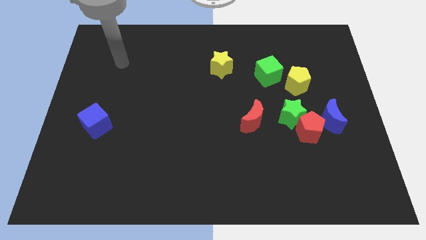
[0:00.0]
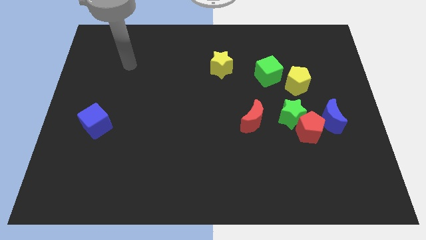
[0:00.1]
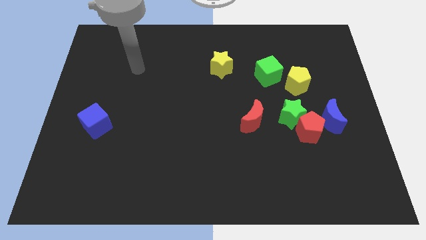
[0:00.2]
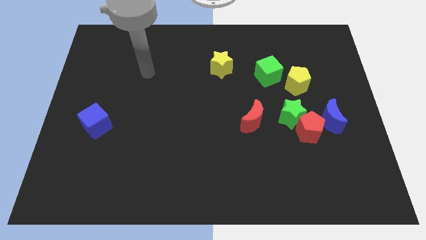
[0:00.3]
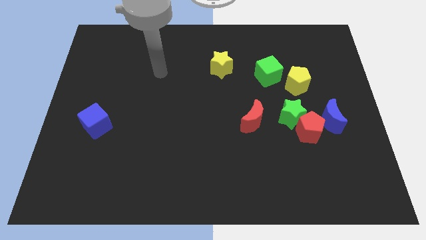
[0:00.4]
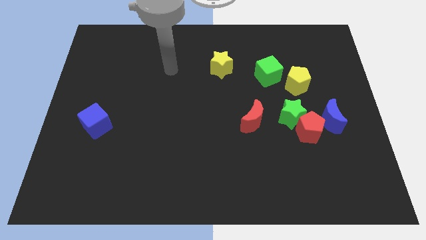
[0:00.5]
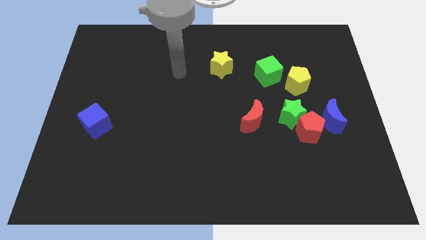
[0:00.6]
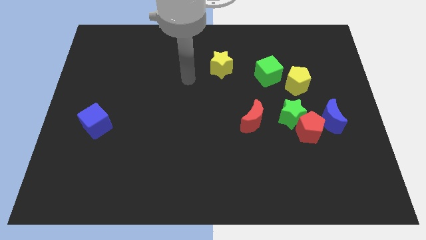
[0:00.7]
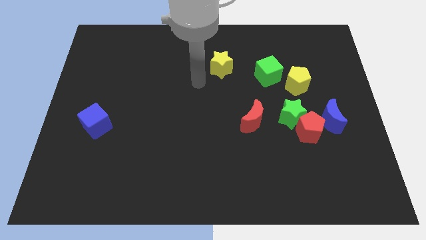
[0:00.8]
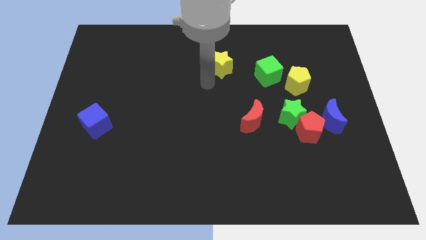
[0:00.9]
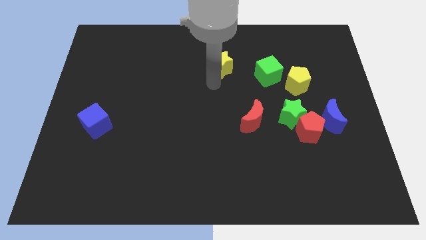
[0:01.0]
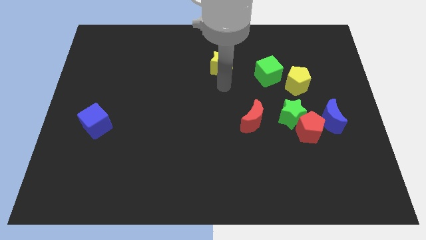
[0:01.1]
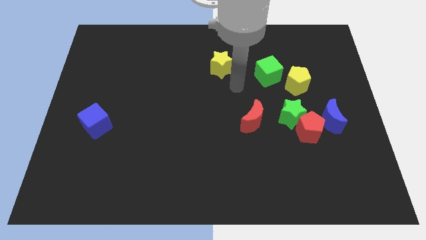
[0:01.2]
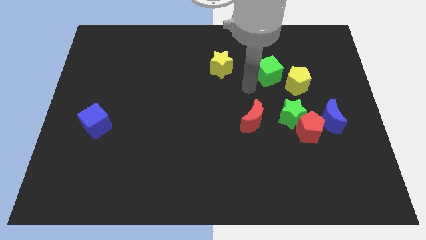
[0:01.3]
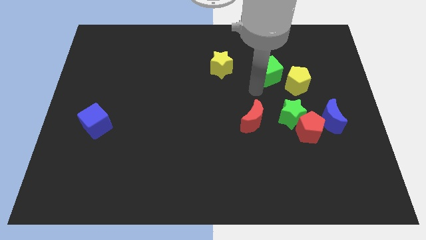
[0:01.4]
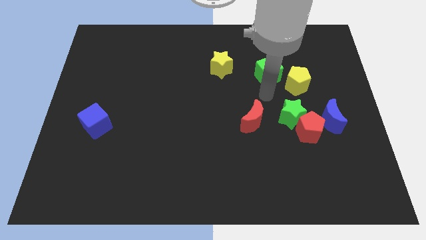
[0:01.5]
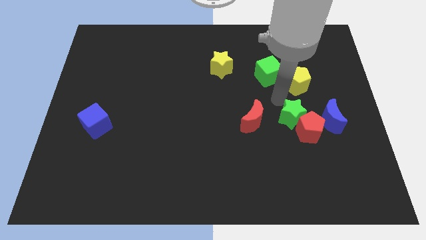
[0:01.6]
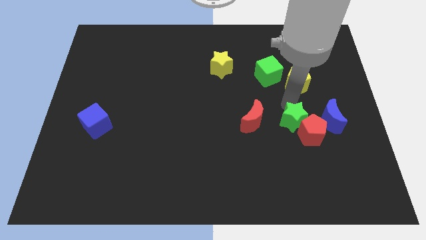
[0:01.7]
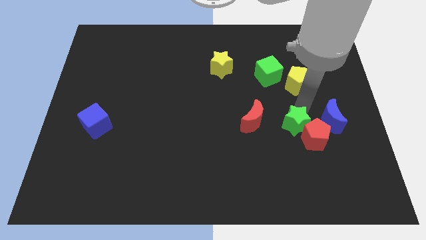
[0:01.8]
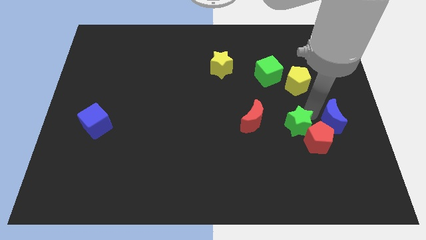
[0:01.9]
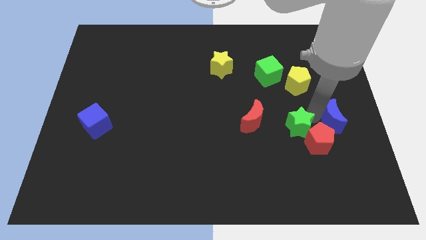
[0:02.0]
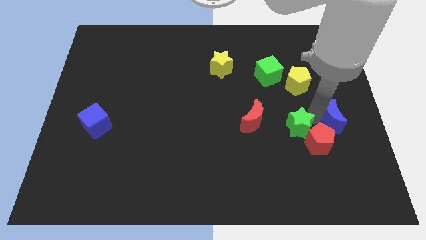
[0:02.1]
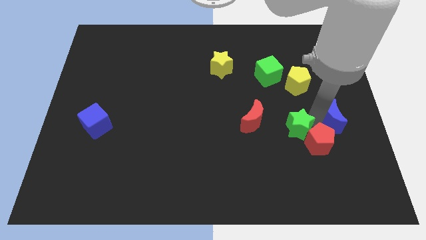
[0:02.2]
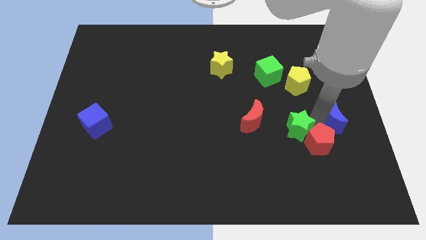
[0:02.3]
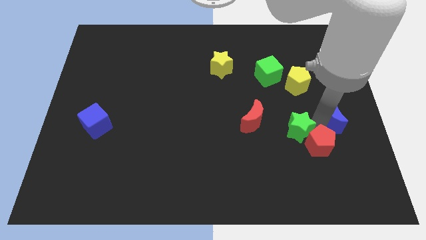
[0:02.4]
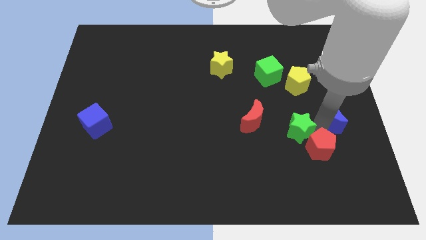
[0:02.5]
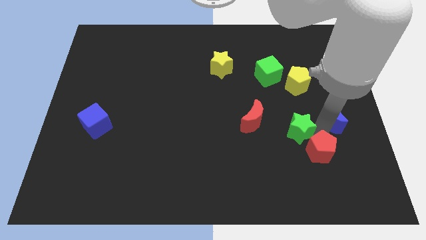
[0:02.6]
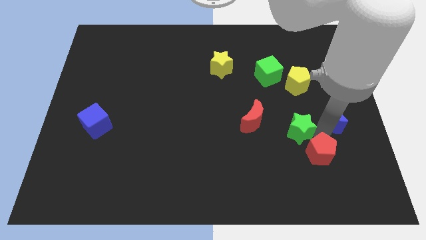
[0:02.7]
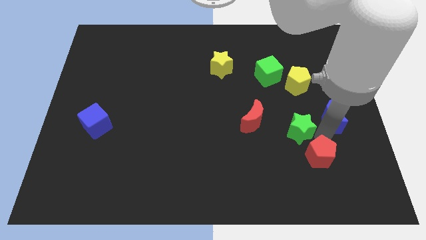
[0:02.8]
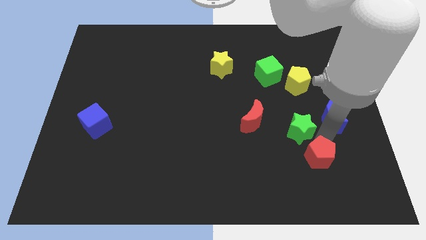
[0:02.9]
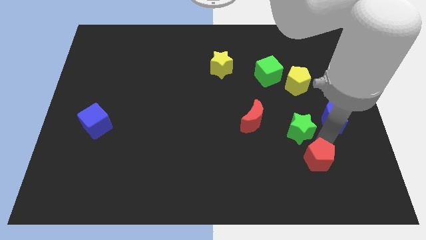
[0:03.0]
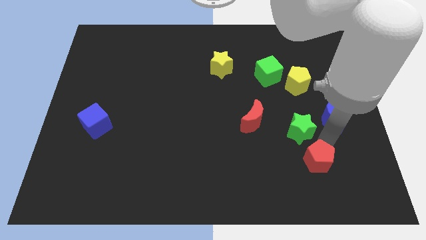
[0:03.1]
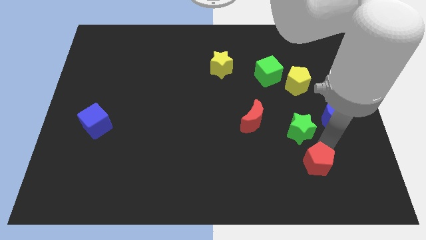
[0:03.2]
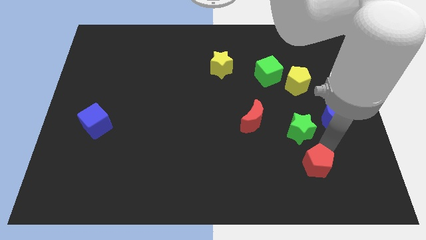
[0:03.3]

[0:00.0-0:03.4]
move the red pentagon away from the green star and blue moon

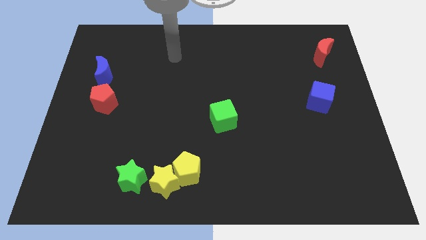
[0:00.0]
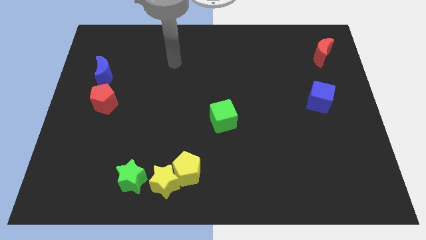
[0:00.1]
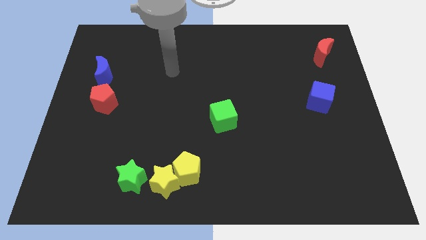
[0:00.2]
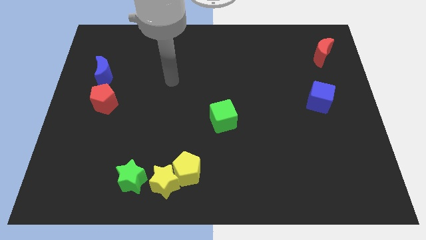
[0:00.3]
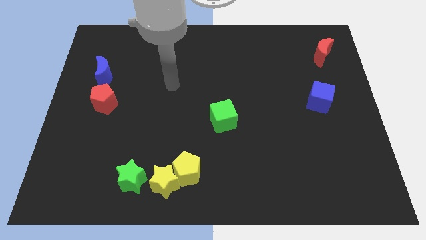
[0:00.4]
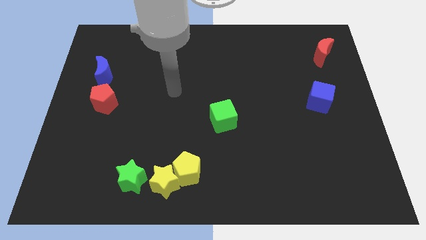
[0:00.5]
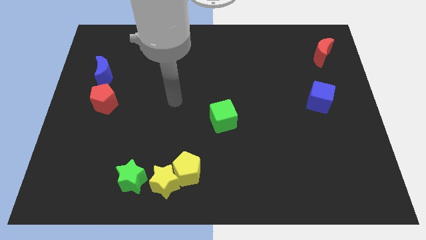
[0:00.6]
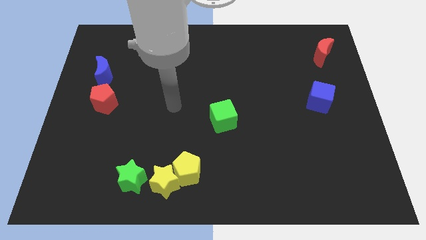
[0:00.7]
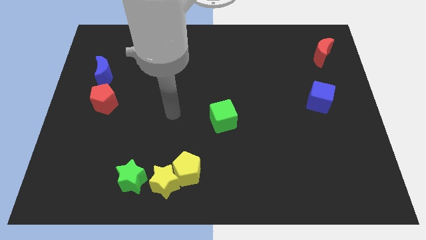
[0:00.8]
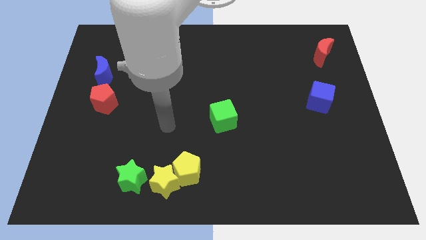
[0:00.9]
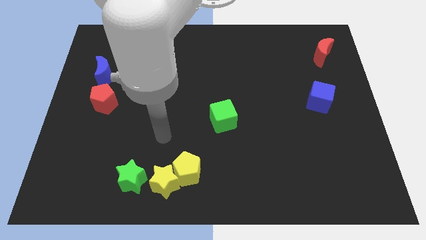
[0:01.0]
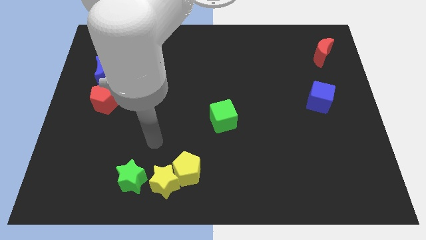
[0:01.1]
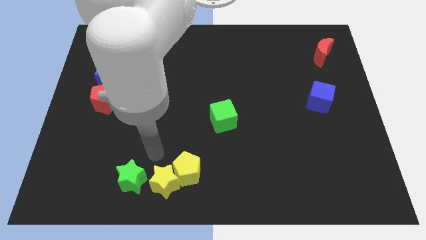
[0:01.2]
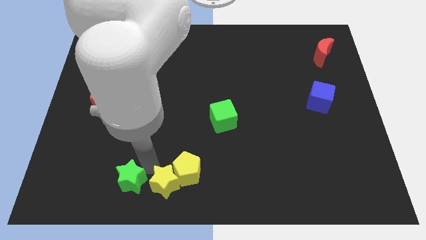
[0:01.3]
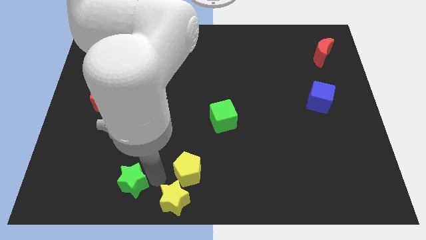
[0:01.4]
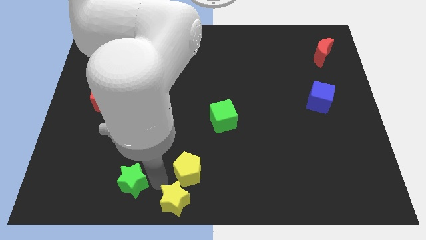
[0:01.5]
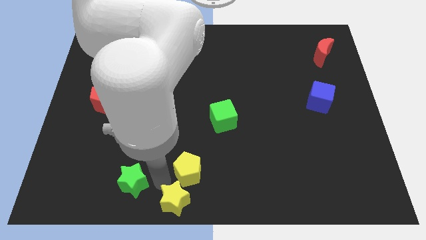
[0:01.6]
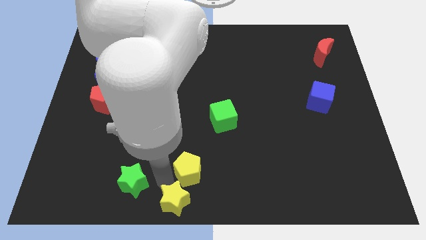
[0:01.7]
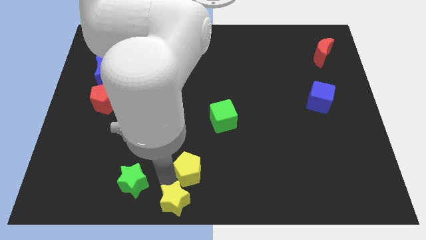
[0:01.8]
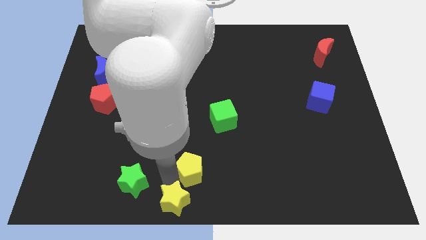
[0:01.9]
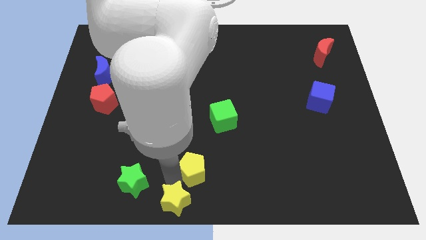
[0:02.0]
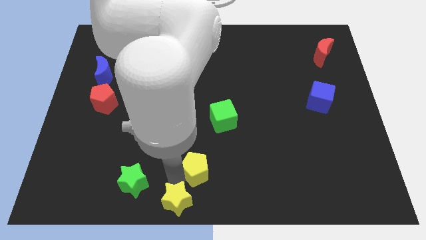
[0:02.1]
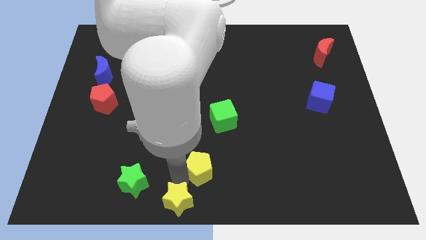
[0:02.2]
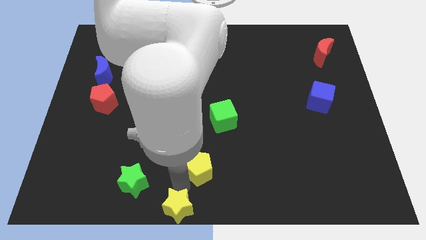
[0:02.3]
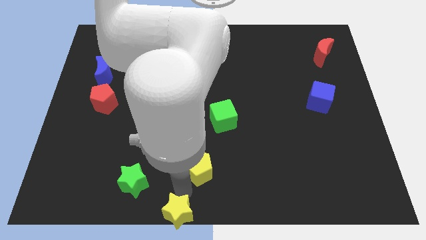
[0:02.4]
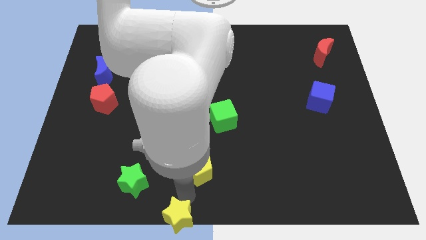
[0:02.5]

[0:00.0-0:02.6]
move the yellow pentagon away from the yellow star

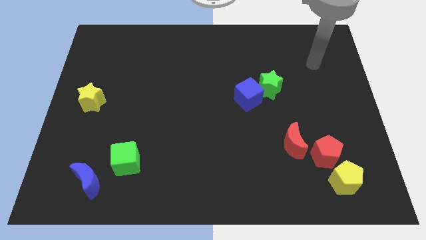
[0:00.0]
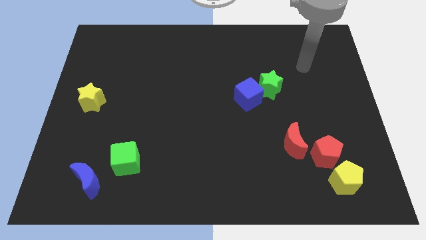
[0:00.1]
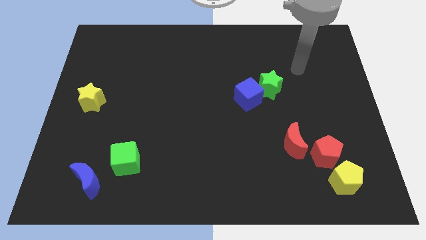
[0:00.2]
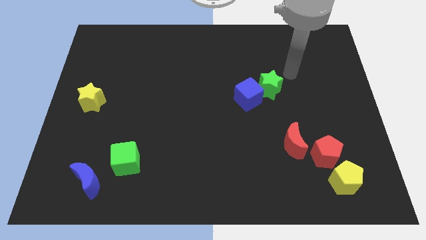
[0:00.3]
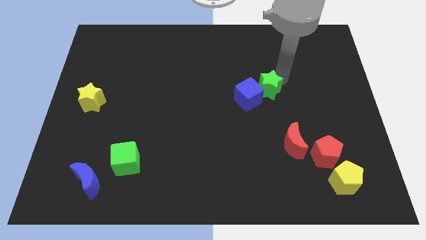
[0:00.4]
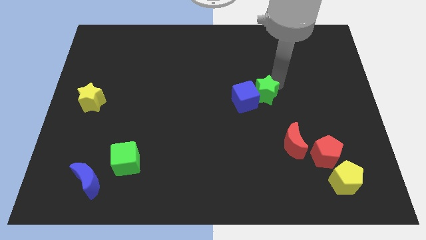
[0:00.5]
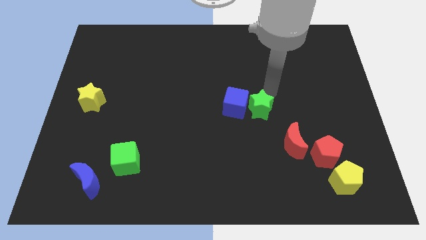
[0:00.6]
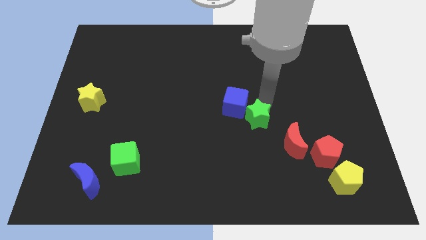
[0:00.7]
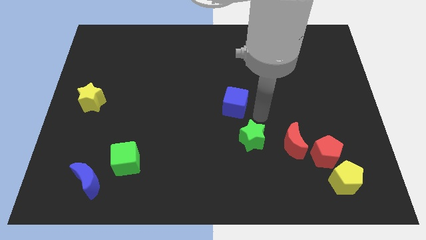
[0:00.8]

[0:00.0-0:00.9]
pull the blue cube apart from the green star

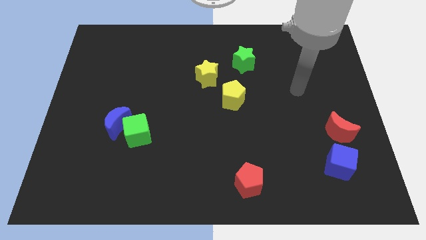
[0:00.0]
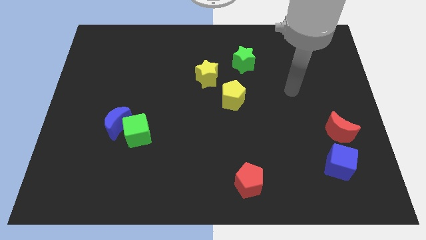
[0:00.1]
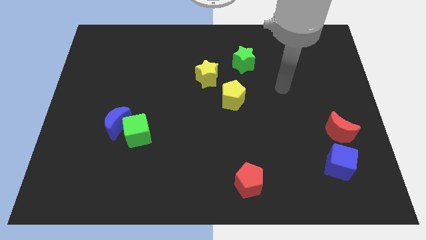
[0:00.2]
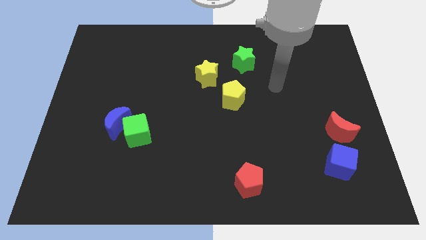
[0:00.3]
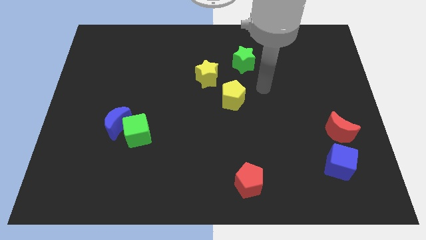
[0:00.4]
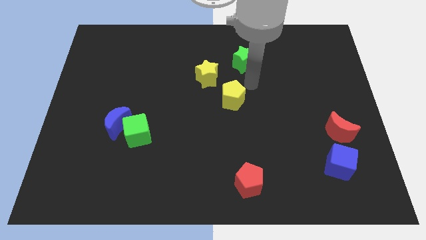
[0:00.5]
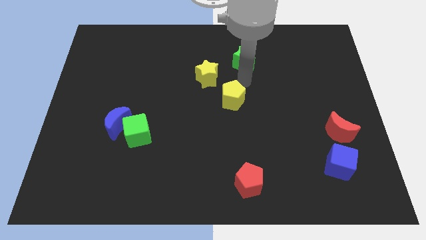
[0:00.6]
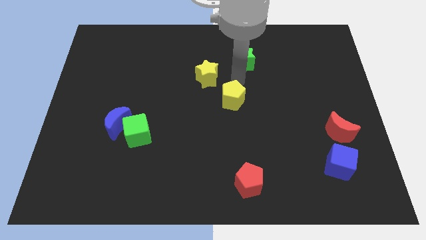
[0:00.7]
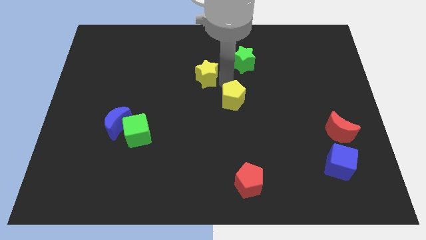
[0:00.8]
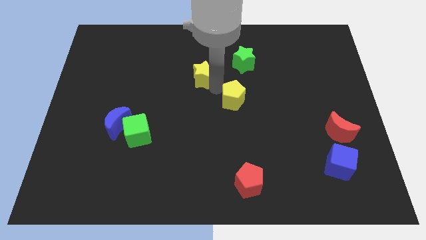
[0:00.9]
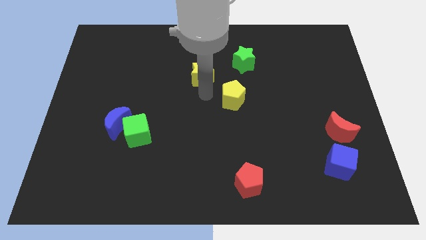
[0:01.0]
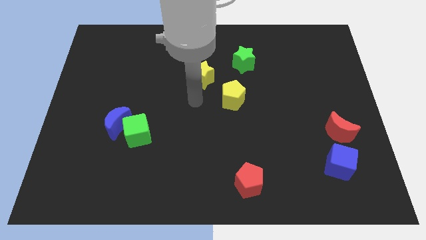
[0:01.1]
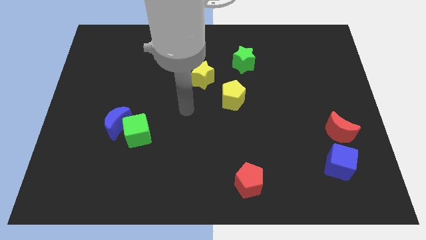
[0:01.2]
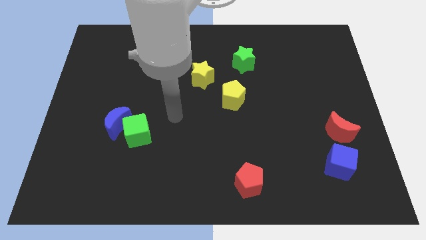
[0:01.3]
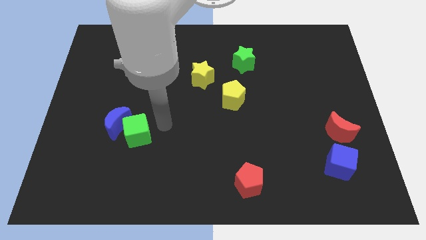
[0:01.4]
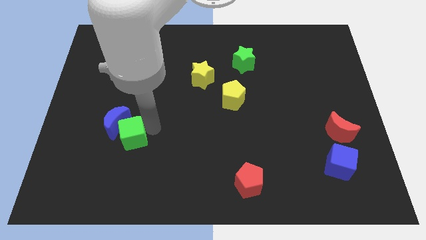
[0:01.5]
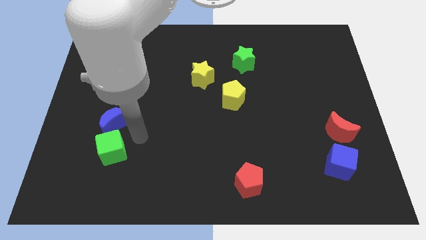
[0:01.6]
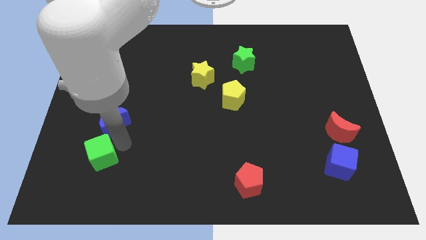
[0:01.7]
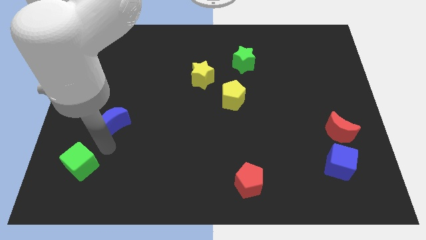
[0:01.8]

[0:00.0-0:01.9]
move the blue moon away from the green cube

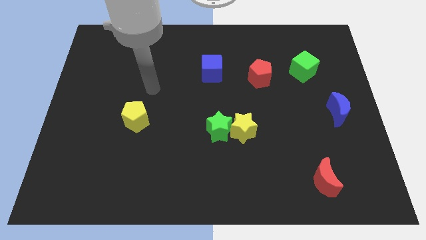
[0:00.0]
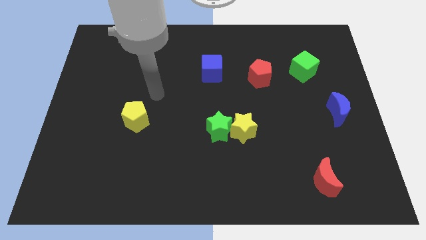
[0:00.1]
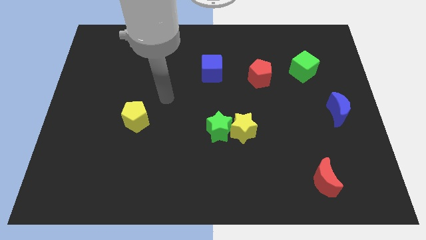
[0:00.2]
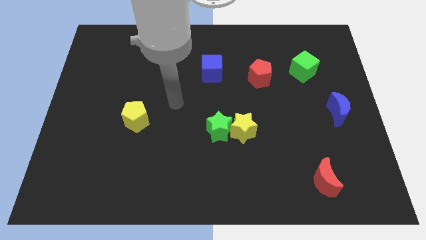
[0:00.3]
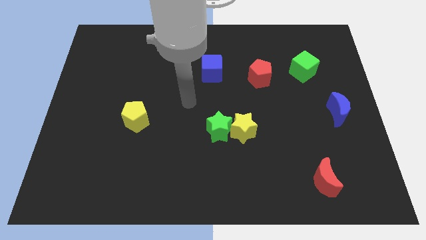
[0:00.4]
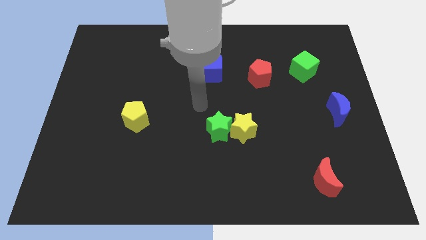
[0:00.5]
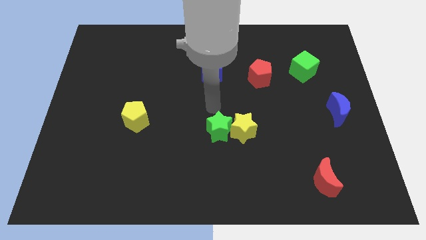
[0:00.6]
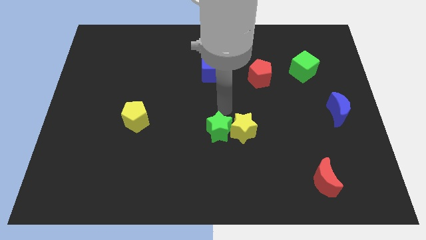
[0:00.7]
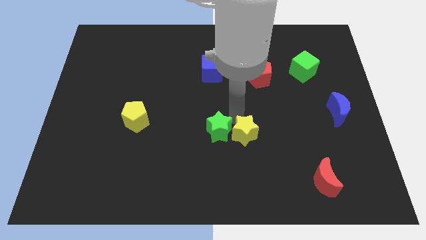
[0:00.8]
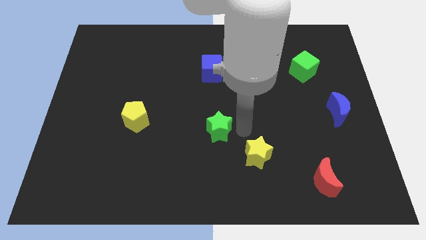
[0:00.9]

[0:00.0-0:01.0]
move the green star away from the yellow star
